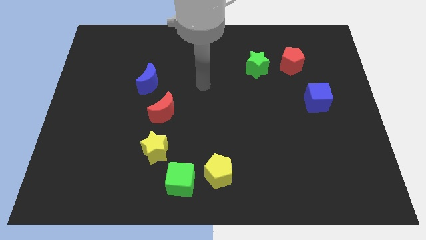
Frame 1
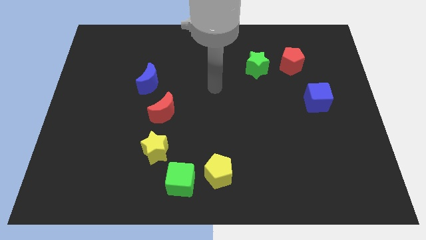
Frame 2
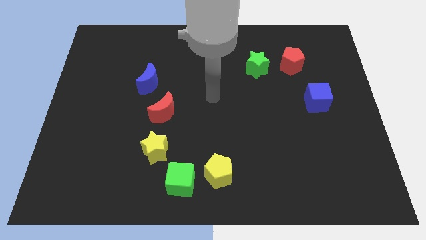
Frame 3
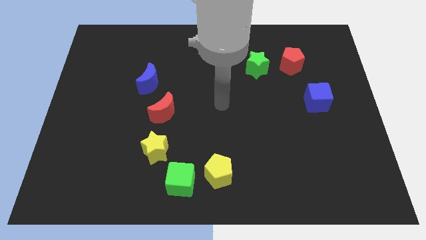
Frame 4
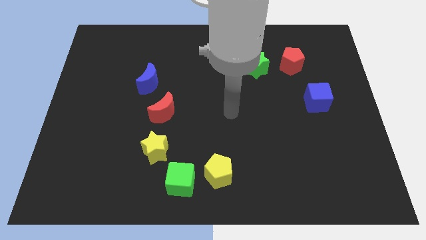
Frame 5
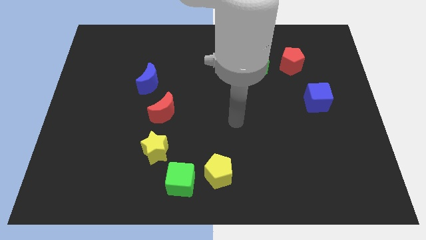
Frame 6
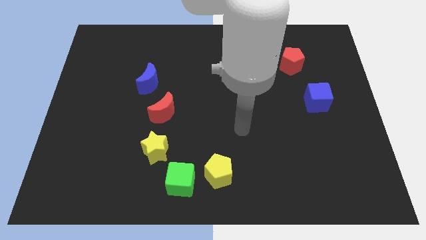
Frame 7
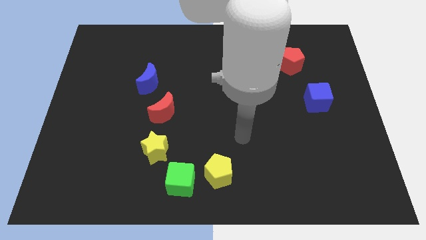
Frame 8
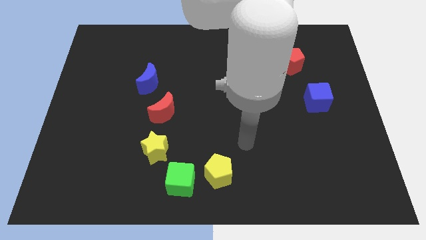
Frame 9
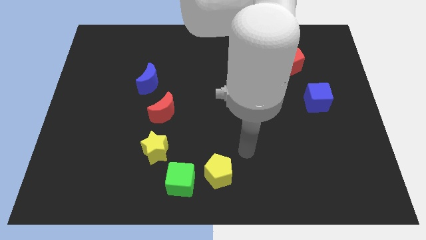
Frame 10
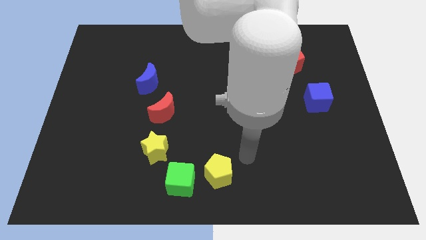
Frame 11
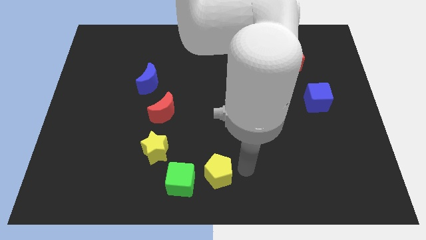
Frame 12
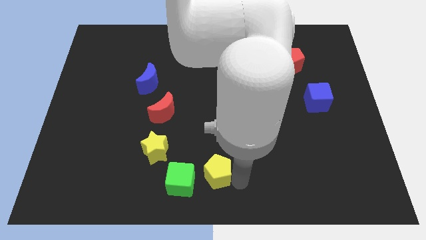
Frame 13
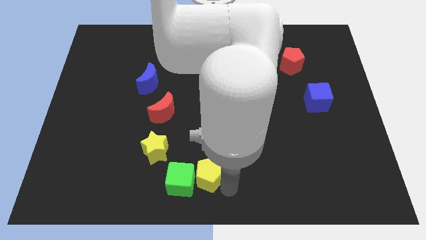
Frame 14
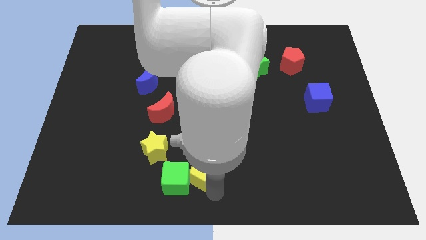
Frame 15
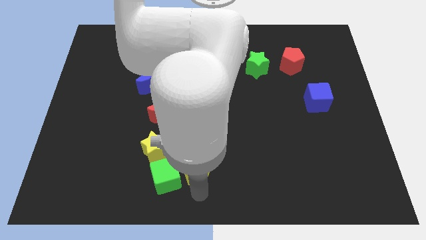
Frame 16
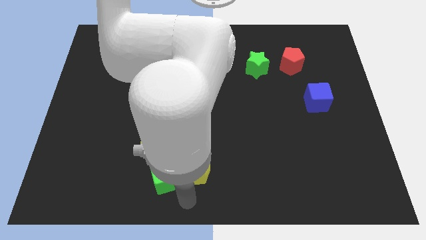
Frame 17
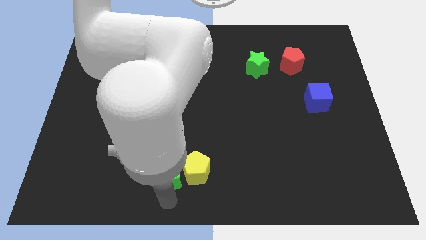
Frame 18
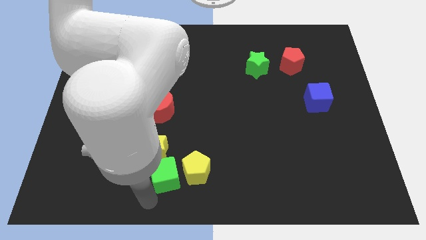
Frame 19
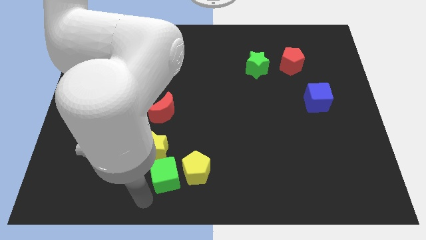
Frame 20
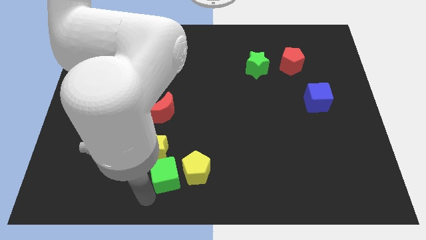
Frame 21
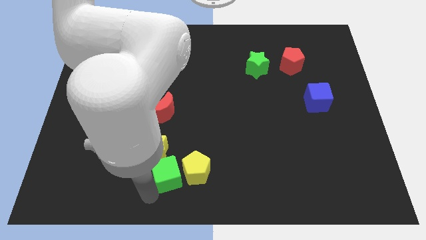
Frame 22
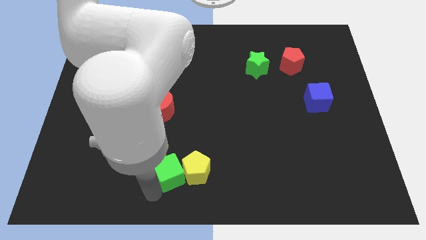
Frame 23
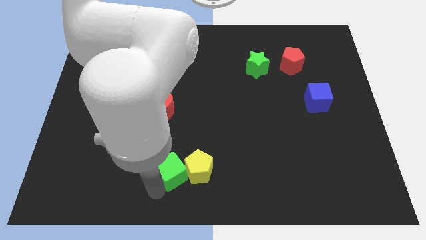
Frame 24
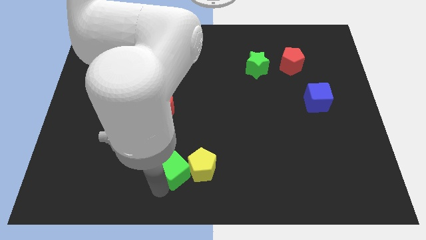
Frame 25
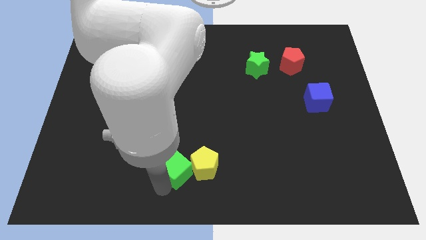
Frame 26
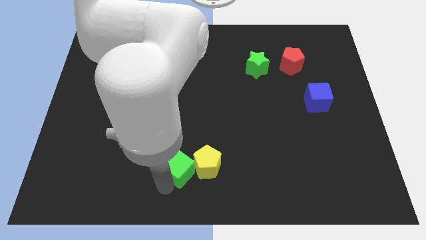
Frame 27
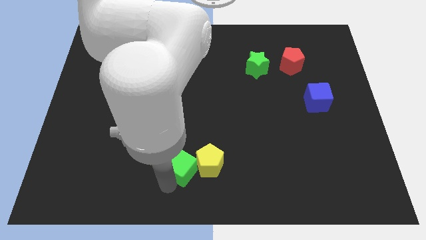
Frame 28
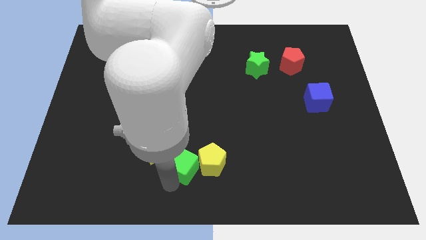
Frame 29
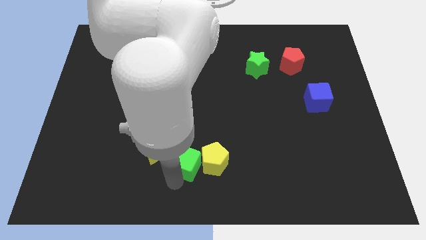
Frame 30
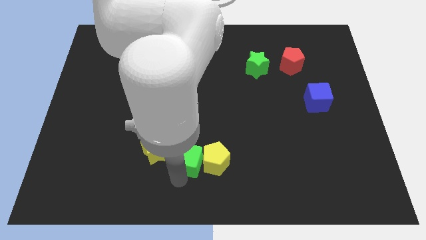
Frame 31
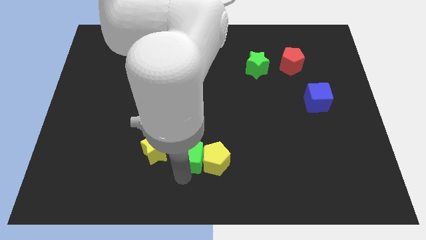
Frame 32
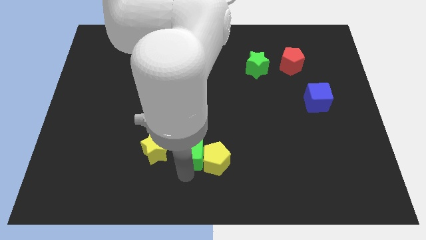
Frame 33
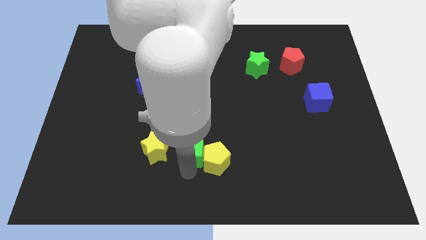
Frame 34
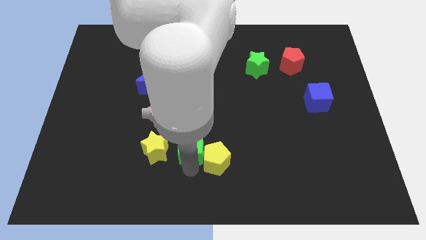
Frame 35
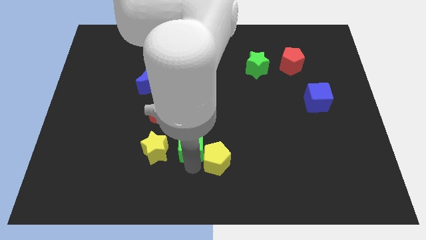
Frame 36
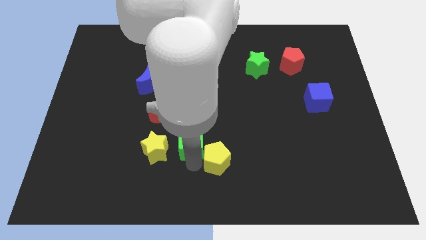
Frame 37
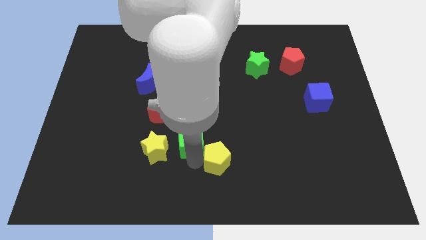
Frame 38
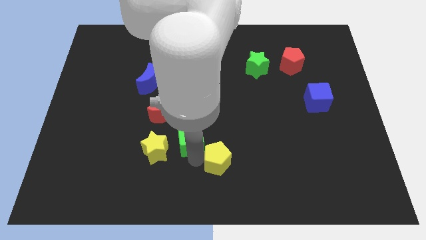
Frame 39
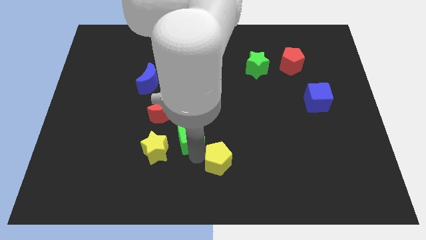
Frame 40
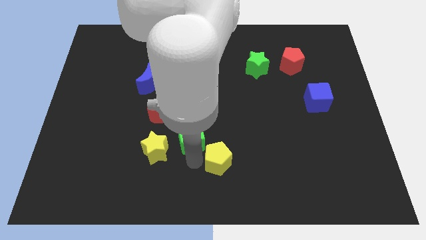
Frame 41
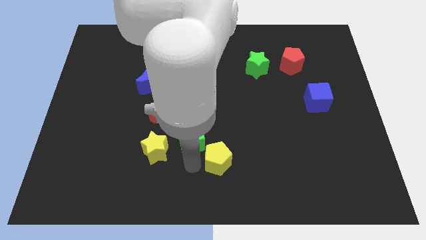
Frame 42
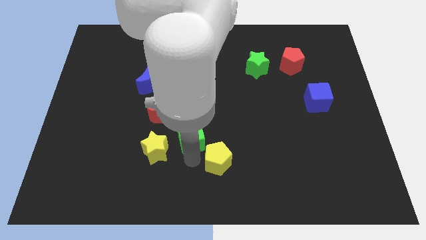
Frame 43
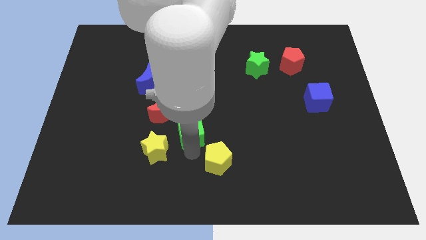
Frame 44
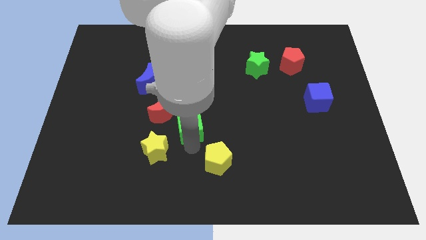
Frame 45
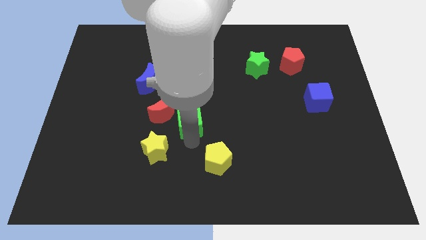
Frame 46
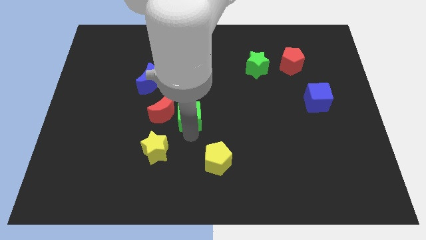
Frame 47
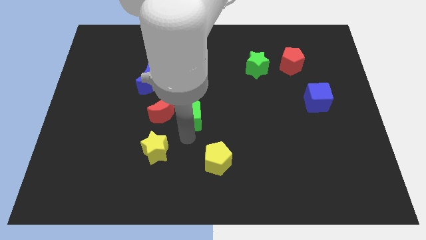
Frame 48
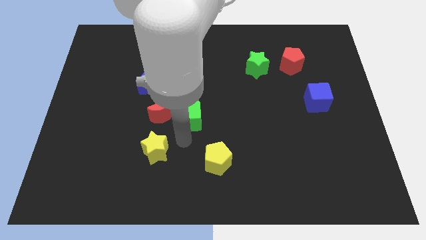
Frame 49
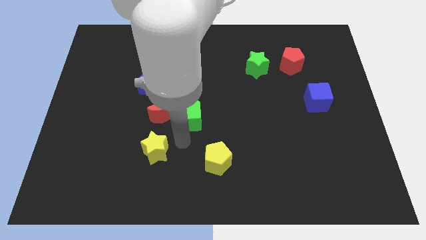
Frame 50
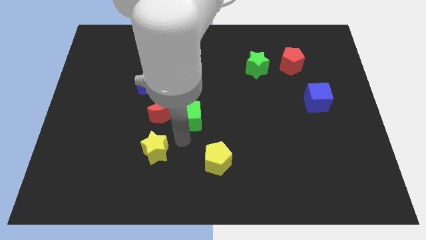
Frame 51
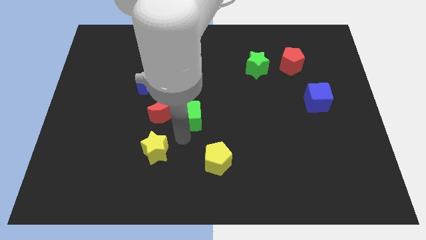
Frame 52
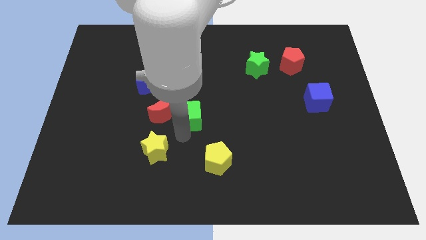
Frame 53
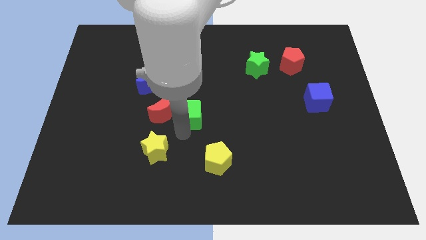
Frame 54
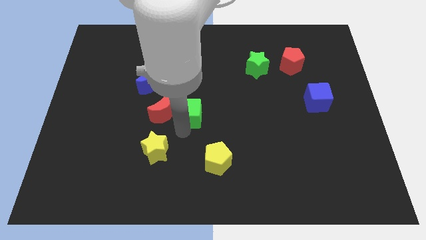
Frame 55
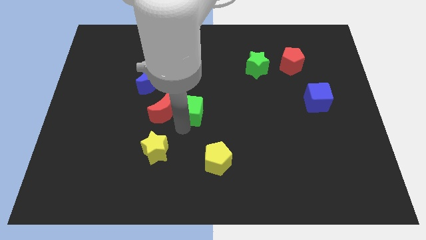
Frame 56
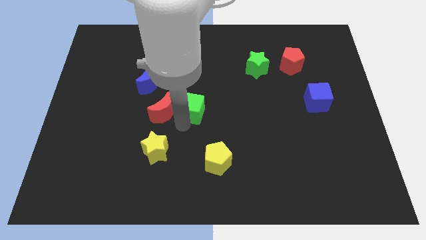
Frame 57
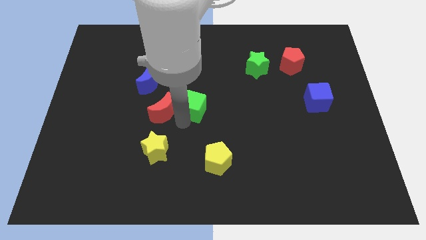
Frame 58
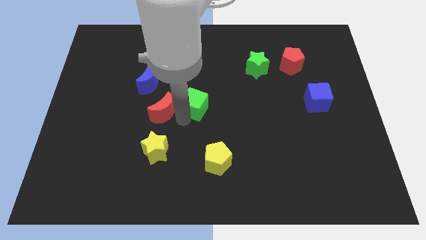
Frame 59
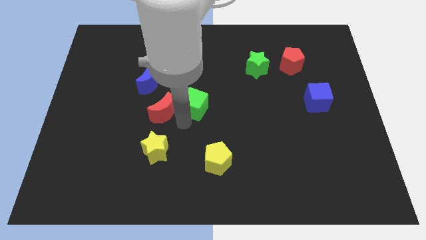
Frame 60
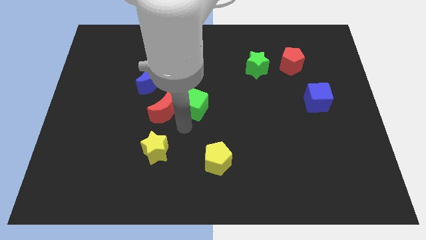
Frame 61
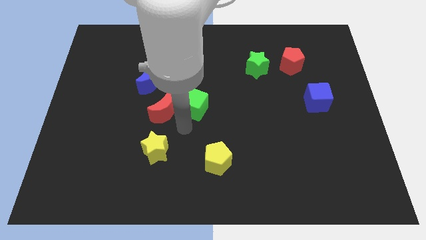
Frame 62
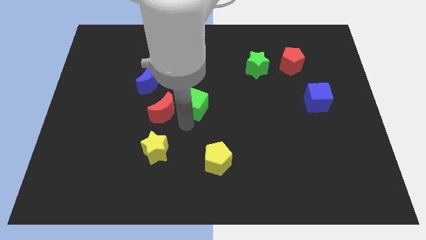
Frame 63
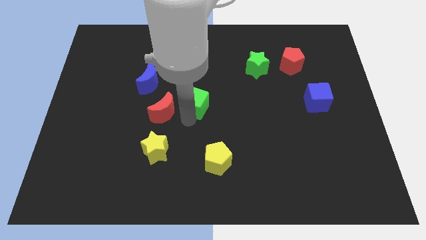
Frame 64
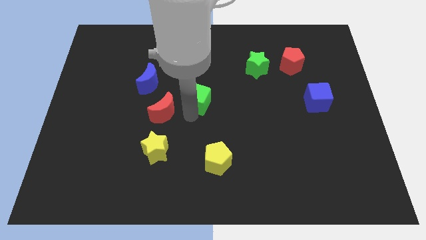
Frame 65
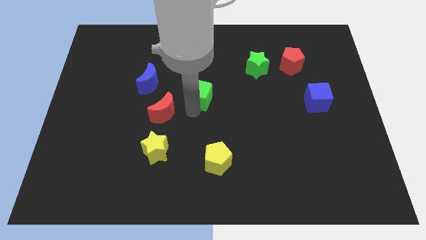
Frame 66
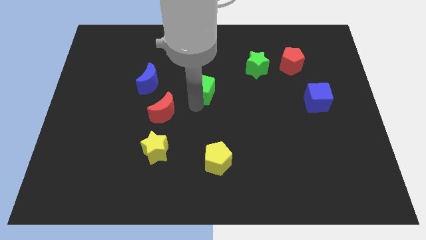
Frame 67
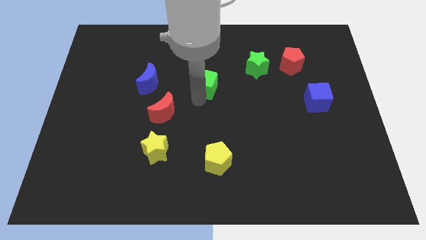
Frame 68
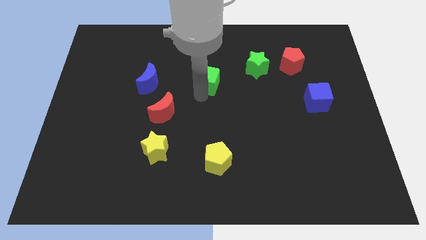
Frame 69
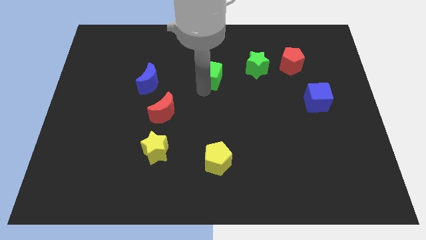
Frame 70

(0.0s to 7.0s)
slide the green cube just left of the green star
